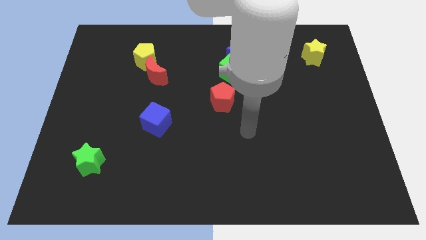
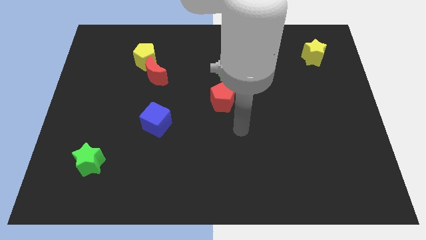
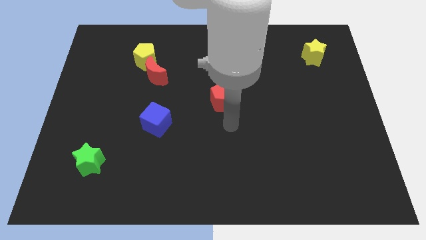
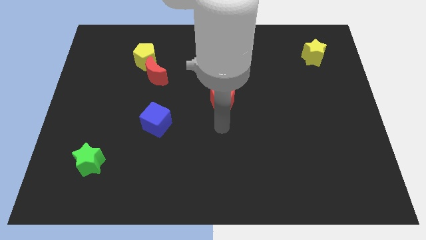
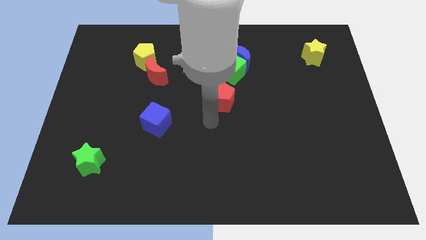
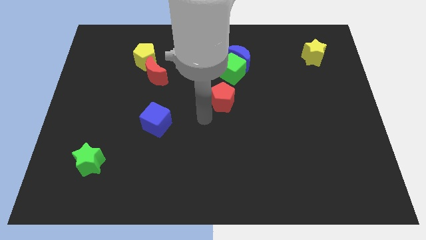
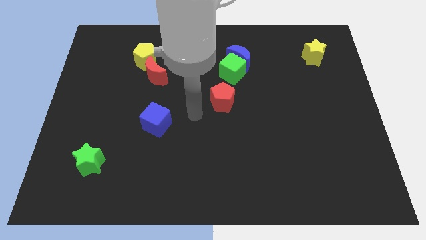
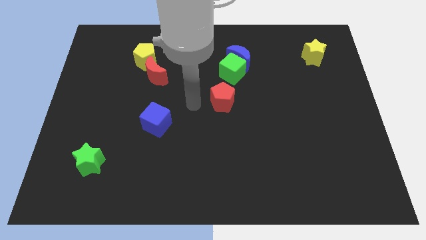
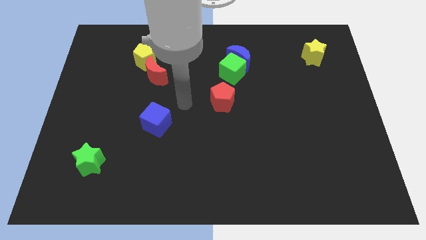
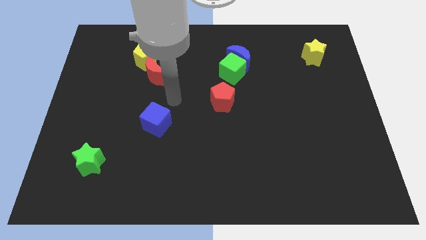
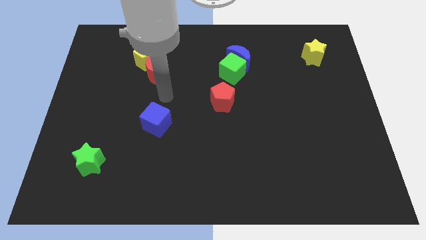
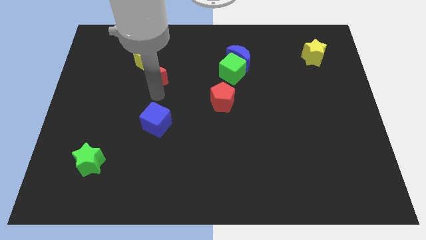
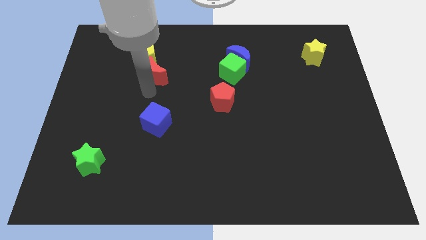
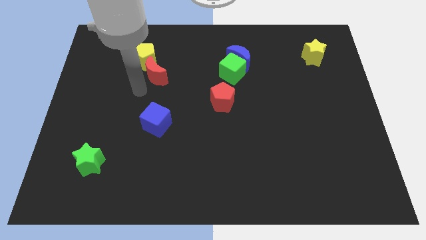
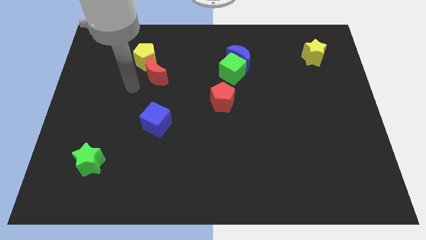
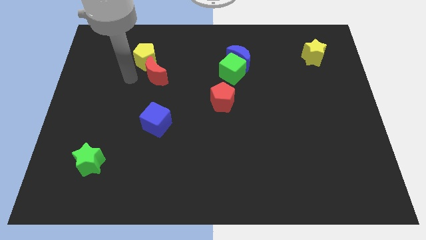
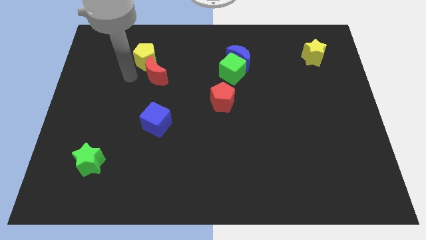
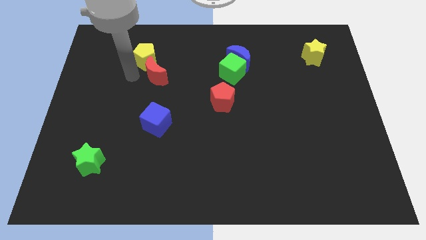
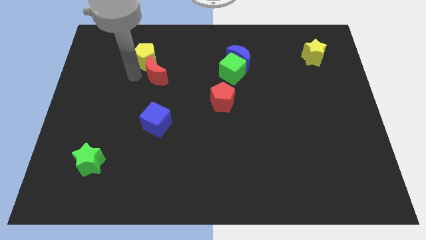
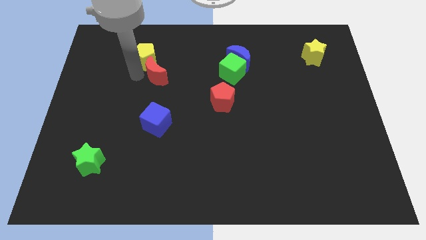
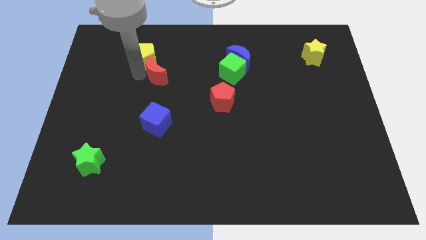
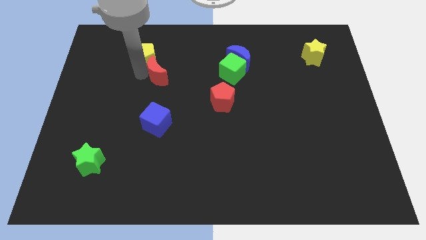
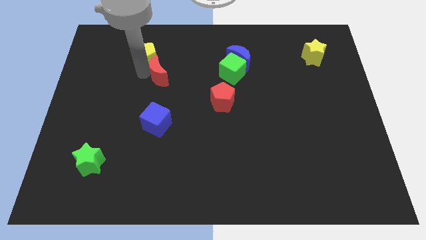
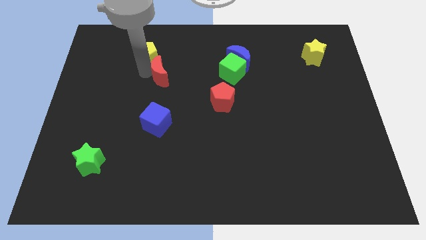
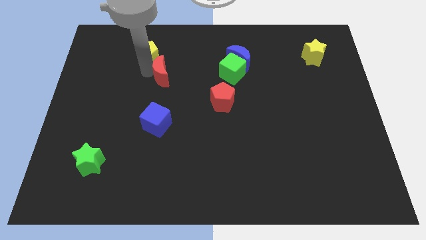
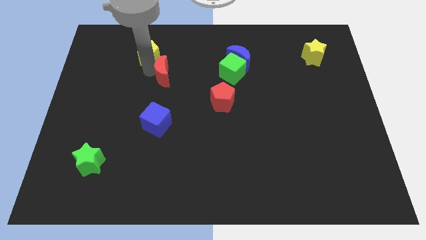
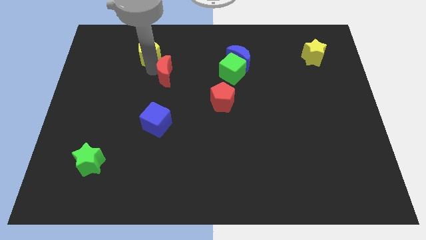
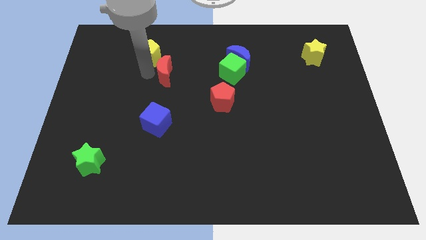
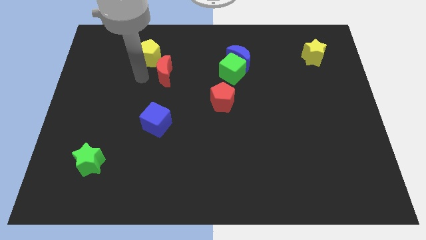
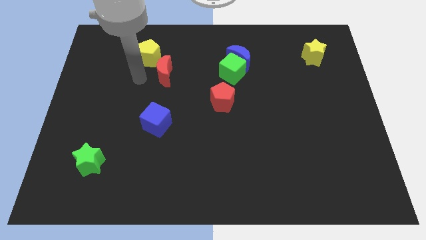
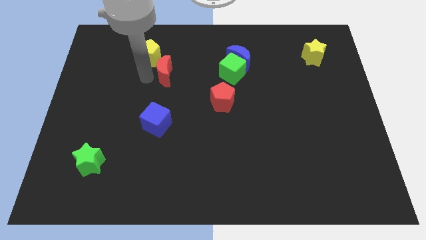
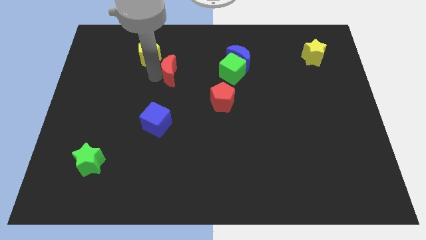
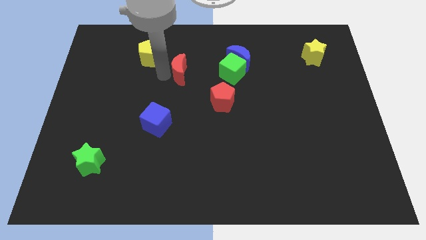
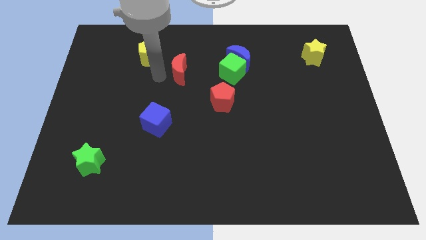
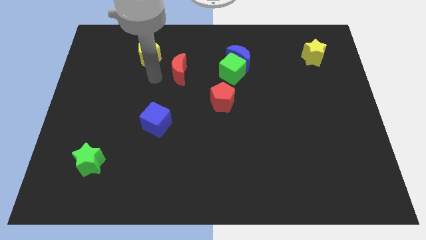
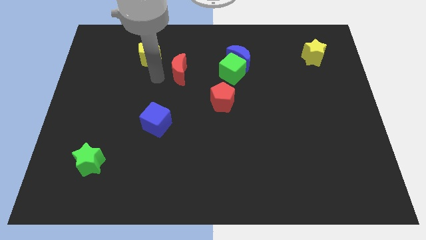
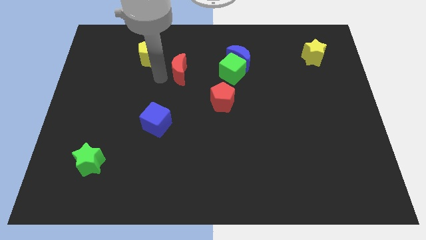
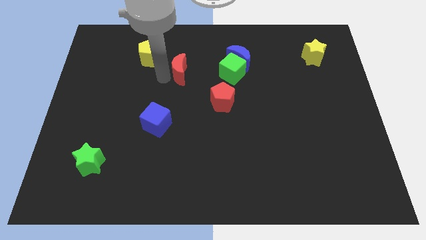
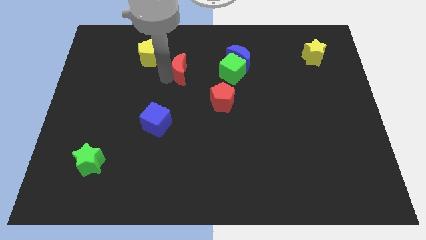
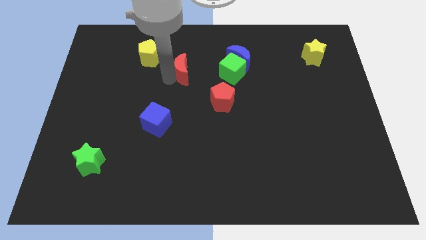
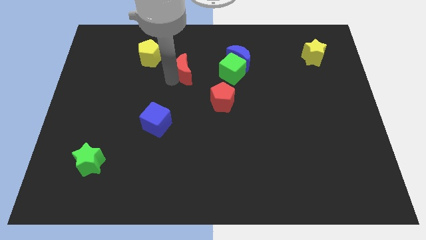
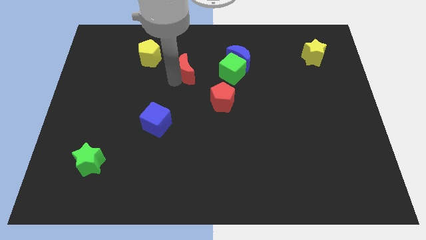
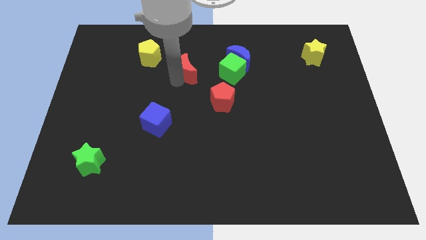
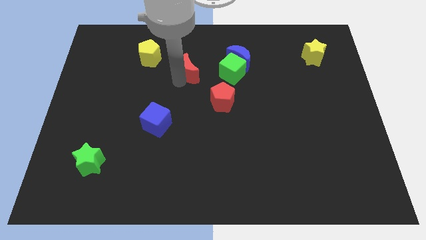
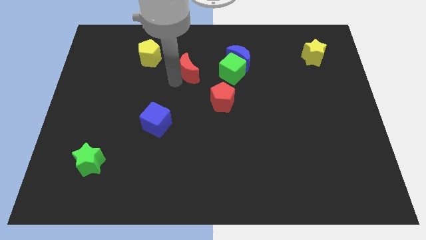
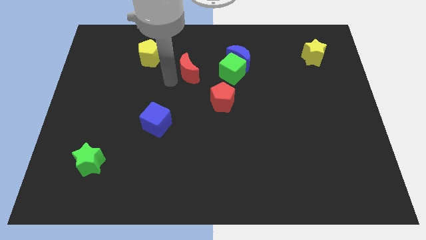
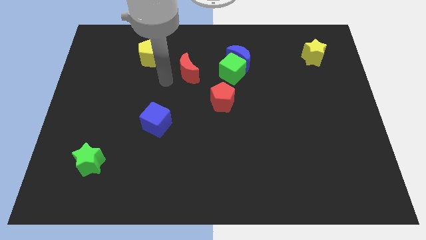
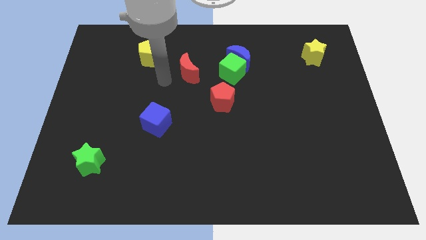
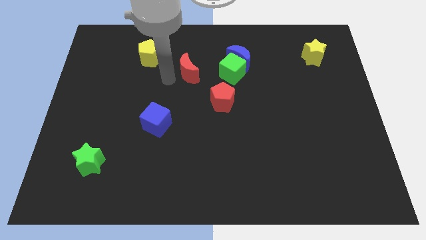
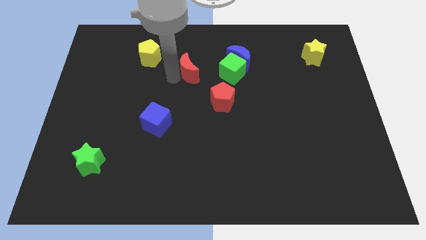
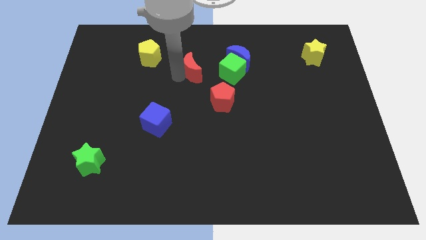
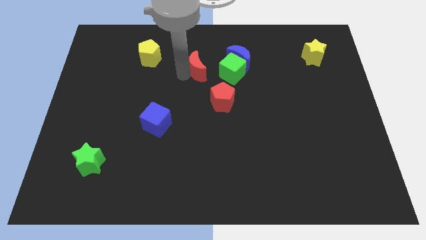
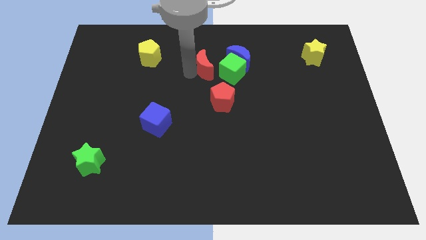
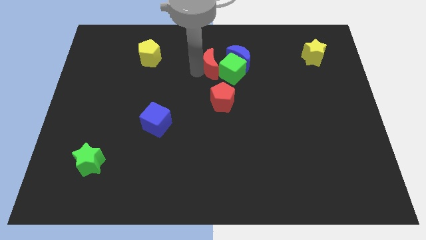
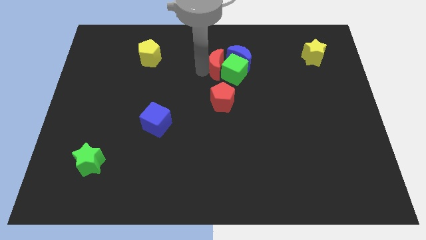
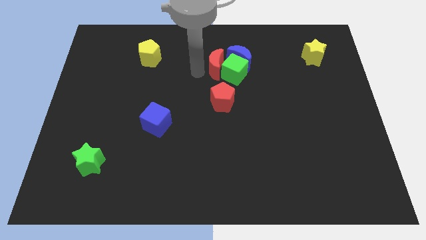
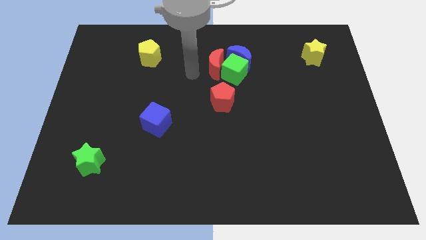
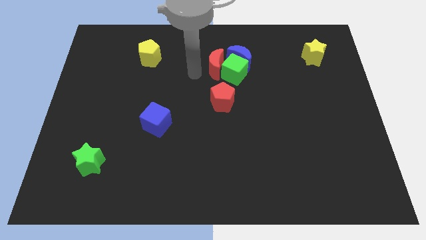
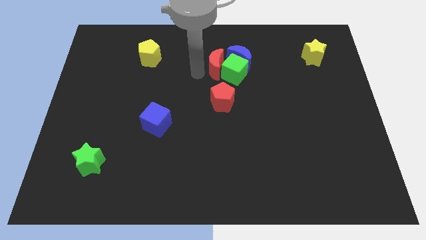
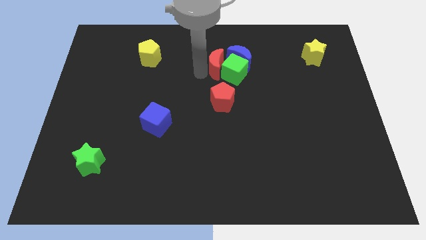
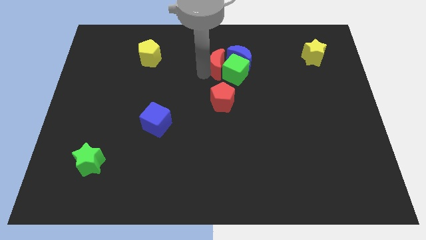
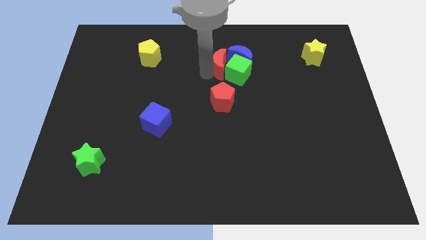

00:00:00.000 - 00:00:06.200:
move the red moon towards the blue moon
